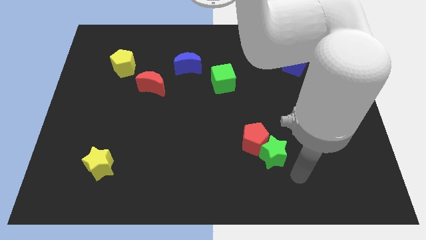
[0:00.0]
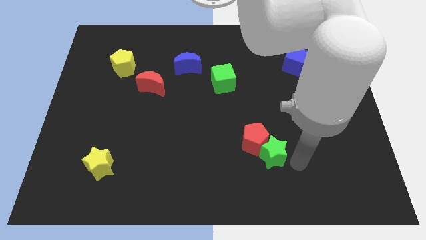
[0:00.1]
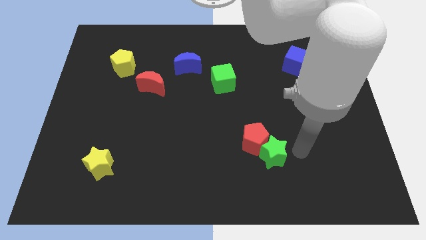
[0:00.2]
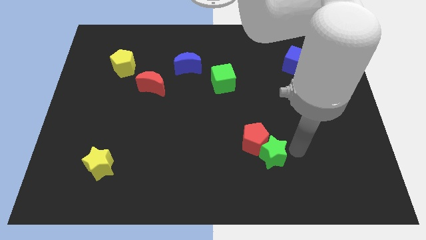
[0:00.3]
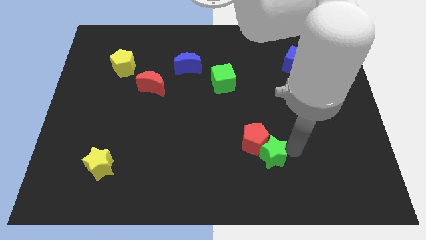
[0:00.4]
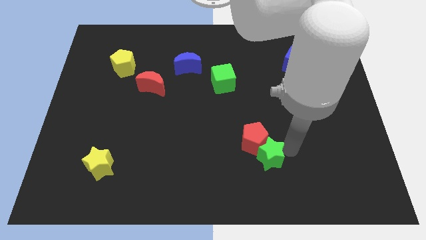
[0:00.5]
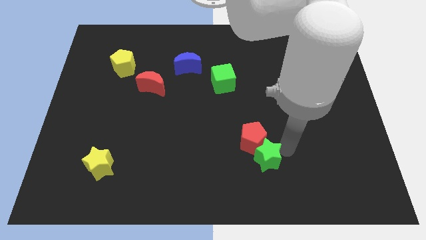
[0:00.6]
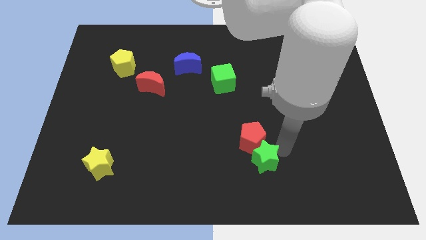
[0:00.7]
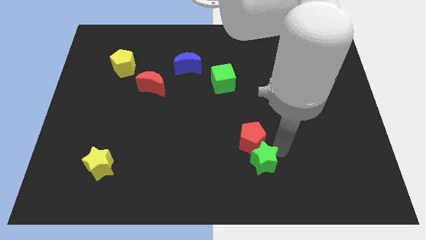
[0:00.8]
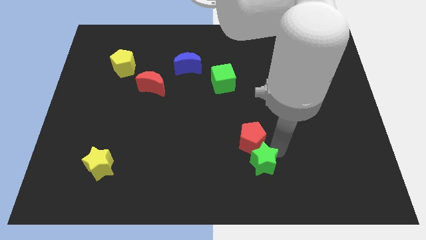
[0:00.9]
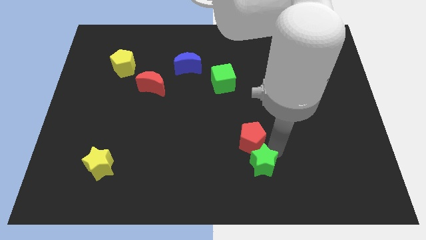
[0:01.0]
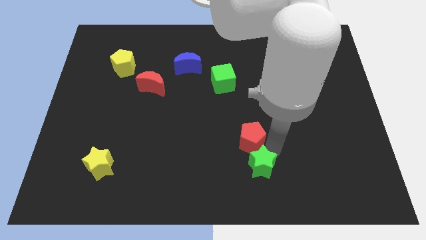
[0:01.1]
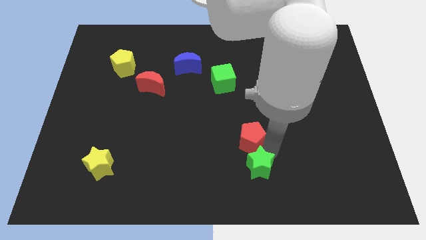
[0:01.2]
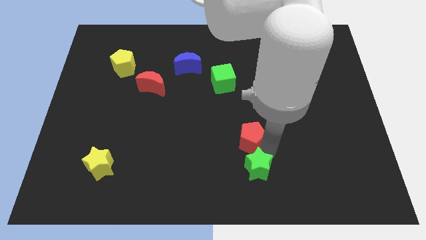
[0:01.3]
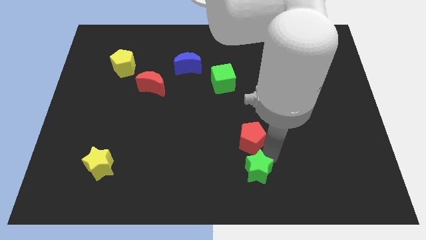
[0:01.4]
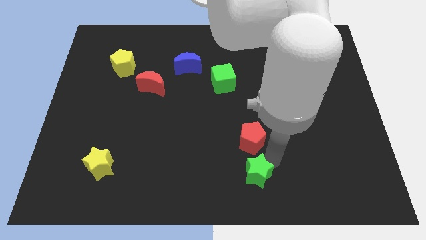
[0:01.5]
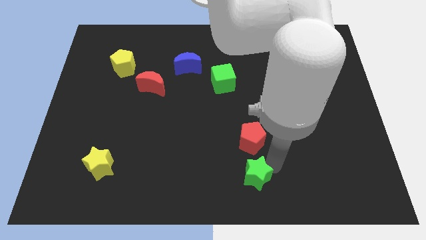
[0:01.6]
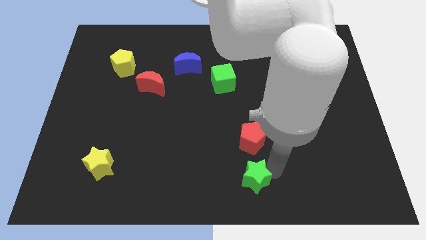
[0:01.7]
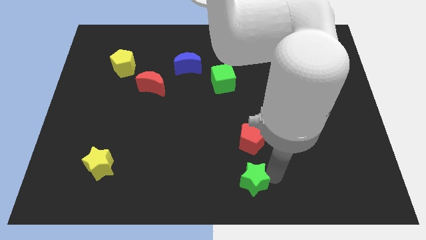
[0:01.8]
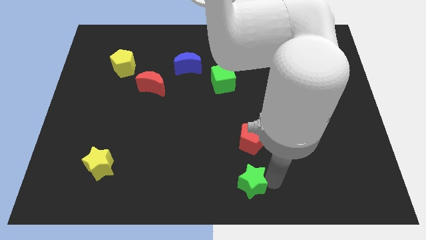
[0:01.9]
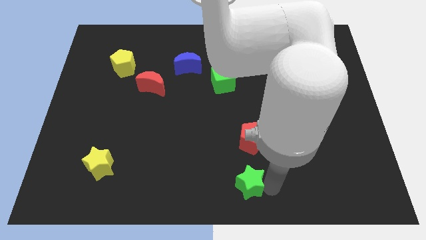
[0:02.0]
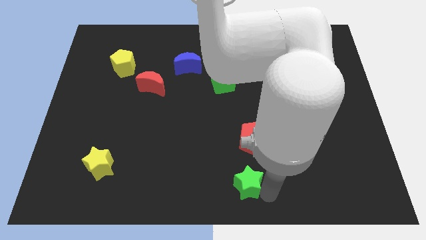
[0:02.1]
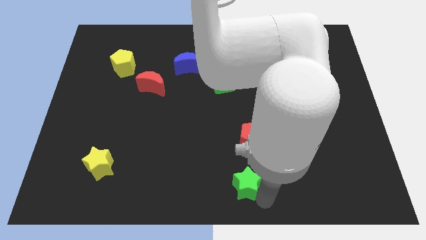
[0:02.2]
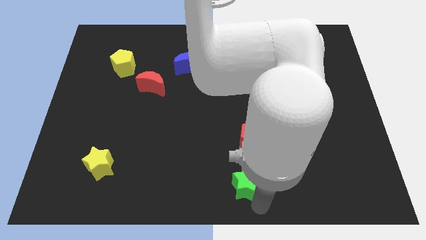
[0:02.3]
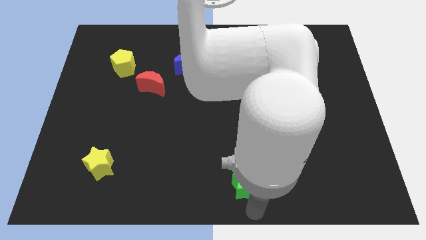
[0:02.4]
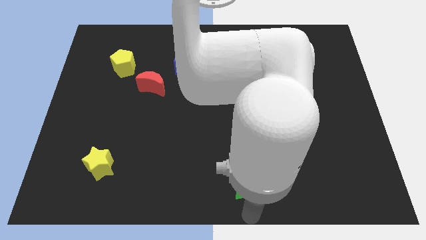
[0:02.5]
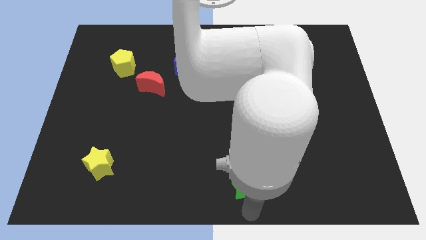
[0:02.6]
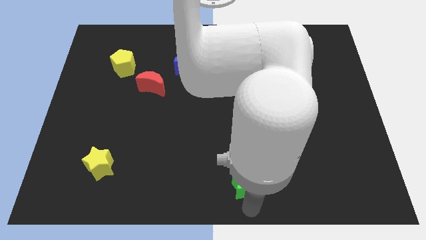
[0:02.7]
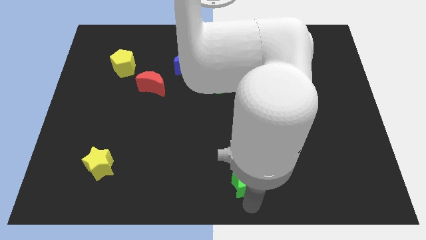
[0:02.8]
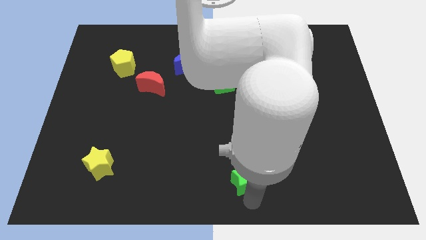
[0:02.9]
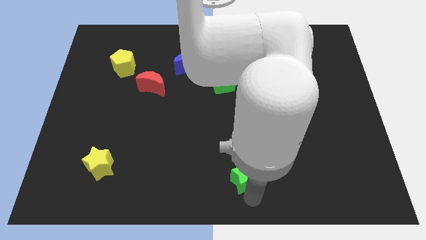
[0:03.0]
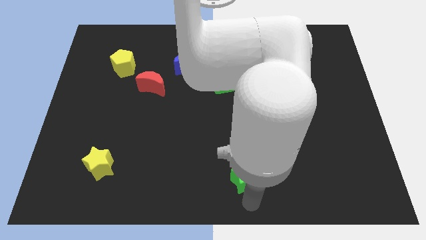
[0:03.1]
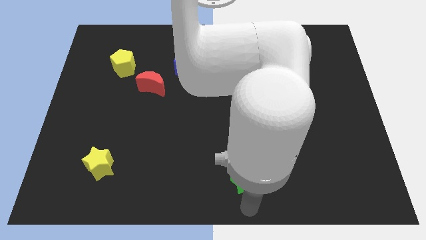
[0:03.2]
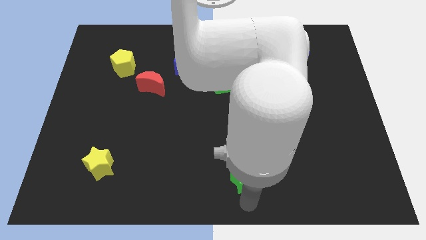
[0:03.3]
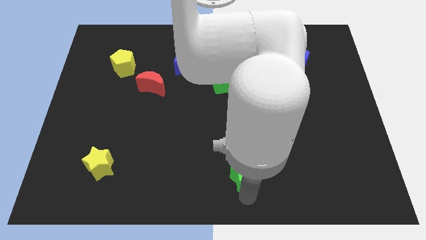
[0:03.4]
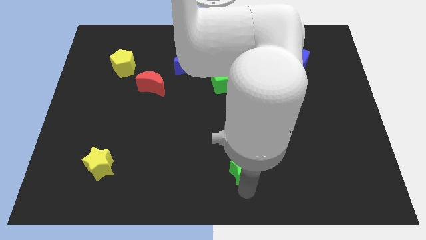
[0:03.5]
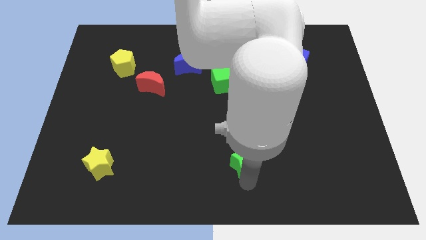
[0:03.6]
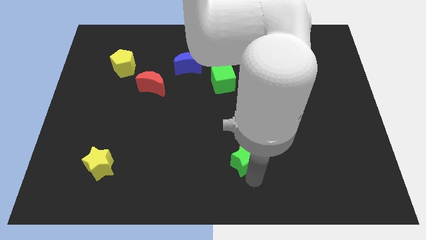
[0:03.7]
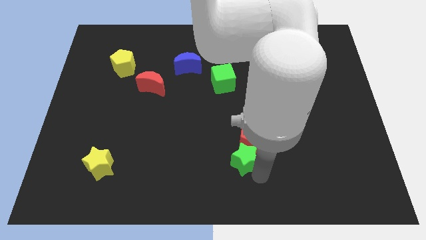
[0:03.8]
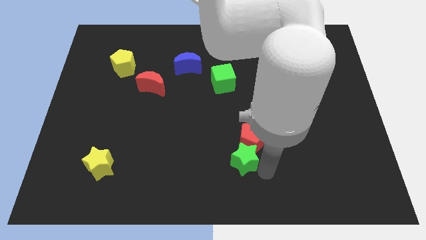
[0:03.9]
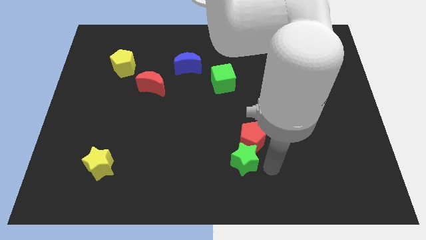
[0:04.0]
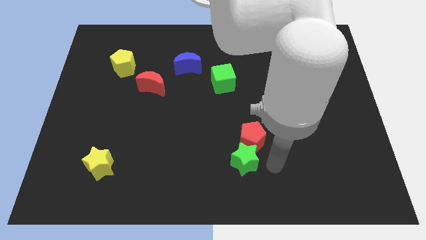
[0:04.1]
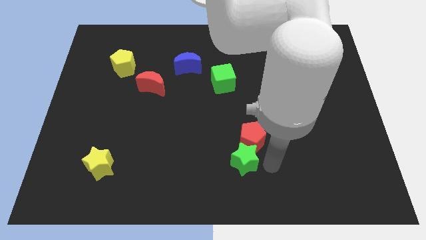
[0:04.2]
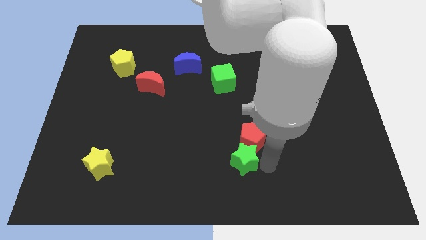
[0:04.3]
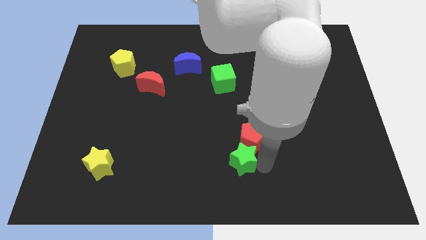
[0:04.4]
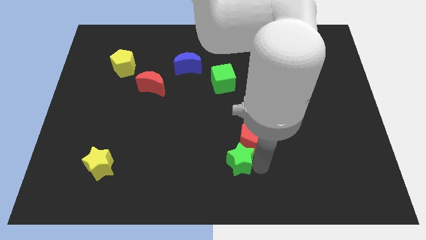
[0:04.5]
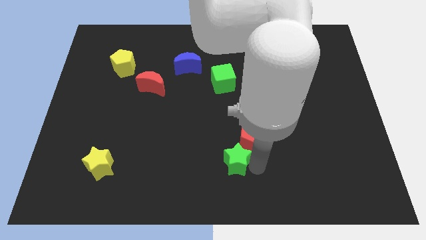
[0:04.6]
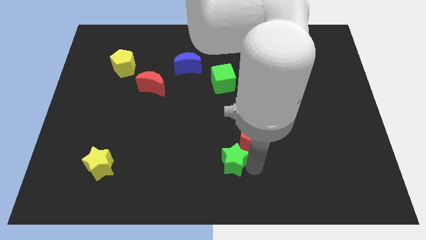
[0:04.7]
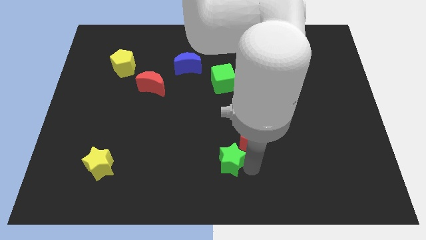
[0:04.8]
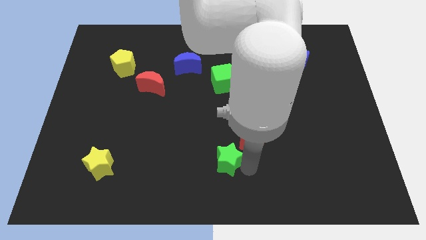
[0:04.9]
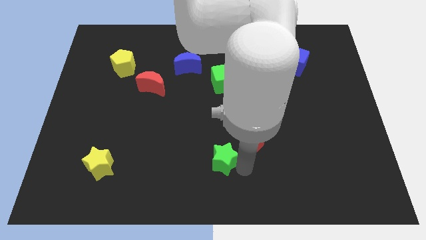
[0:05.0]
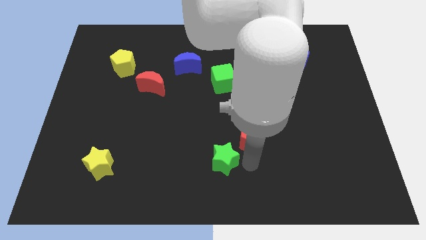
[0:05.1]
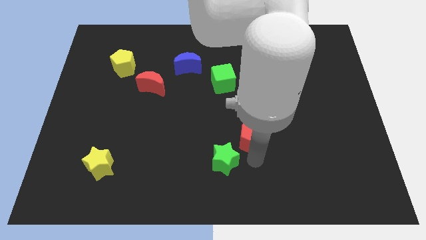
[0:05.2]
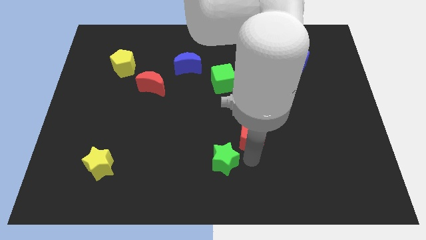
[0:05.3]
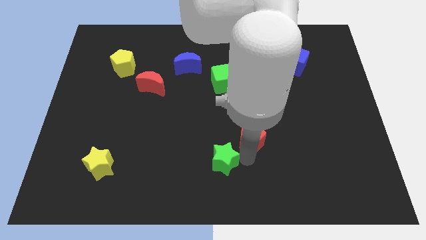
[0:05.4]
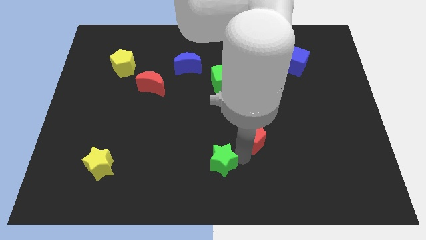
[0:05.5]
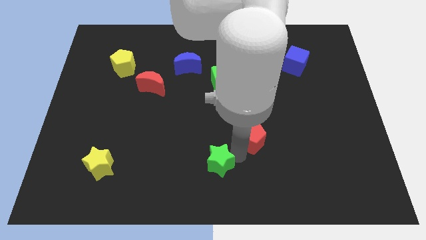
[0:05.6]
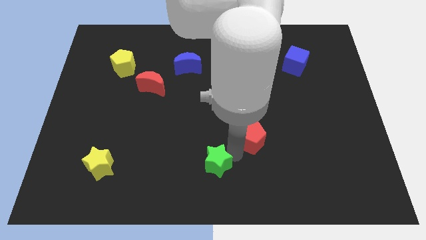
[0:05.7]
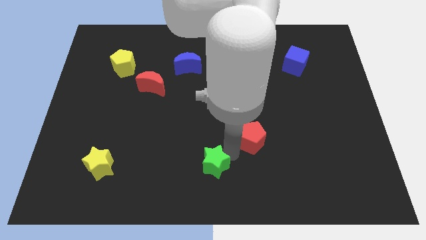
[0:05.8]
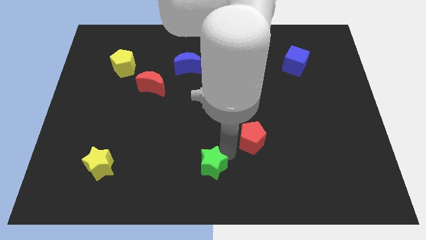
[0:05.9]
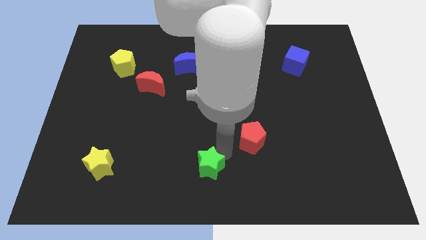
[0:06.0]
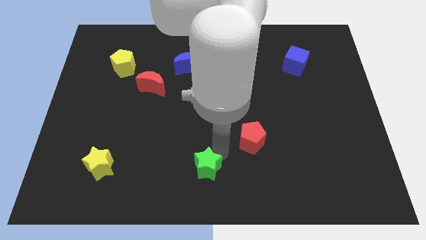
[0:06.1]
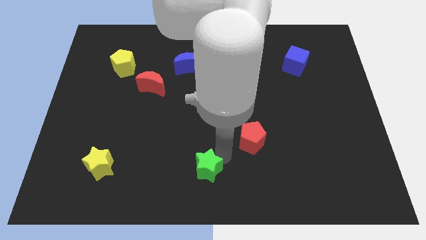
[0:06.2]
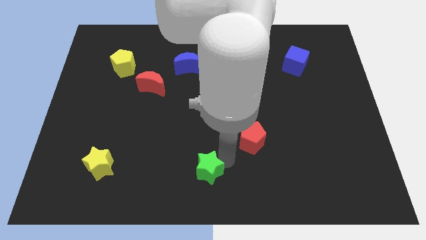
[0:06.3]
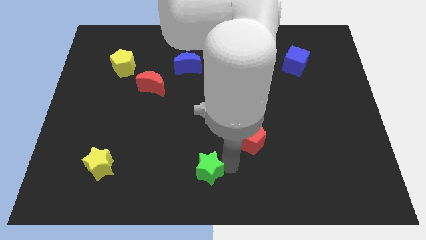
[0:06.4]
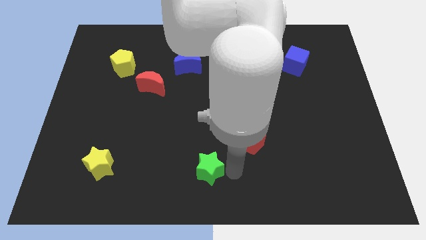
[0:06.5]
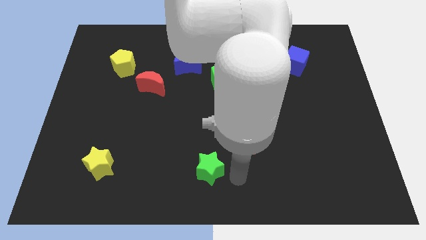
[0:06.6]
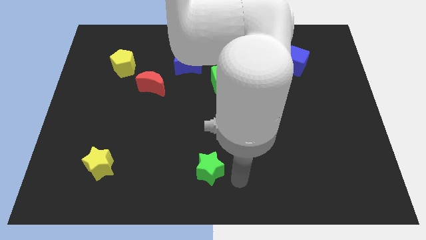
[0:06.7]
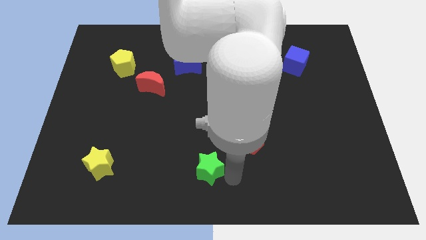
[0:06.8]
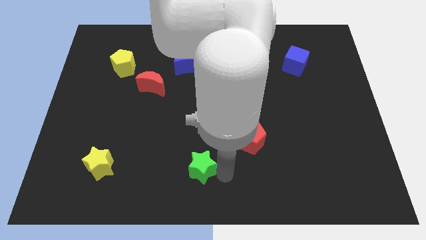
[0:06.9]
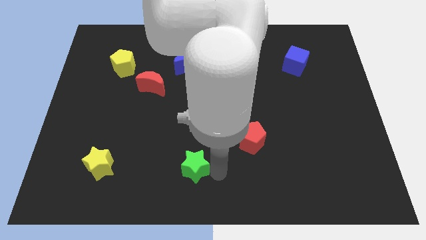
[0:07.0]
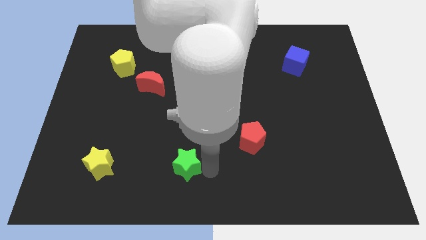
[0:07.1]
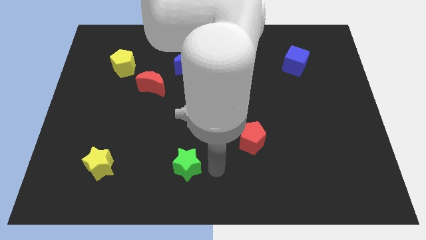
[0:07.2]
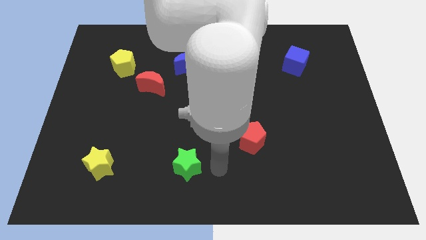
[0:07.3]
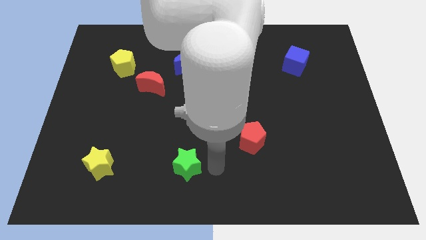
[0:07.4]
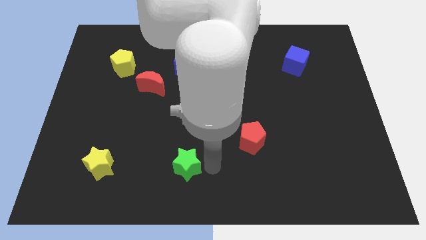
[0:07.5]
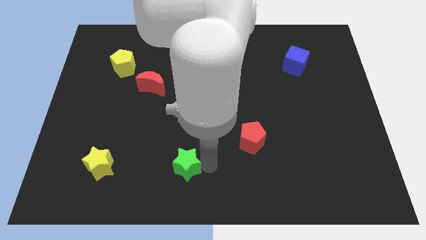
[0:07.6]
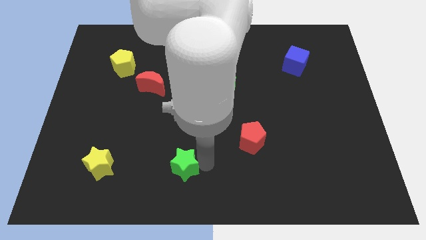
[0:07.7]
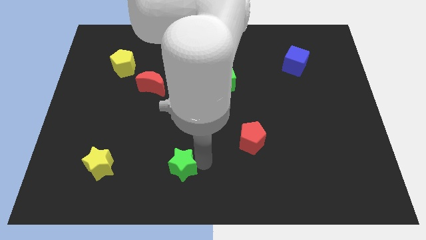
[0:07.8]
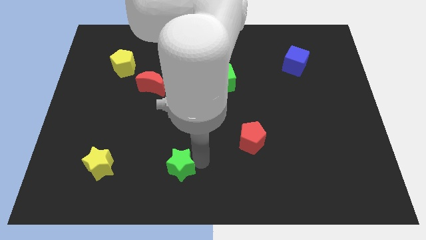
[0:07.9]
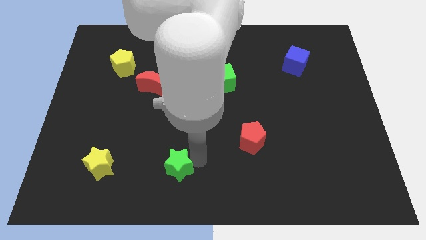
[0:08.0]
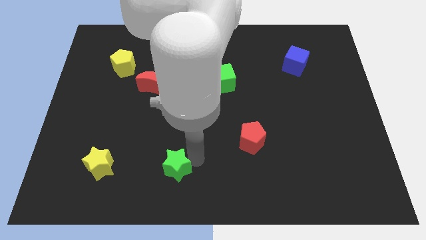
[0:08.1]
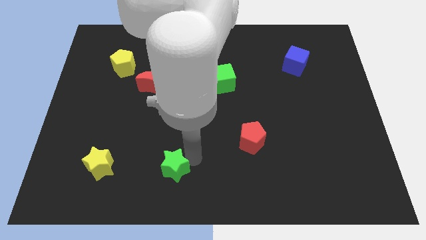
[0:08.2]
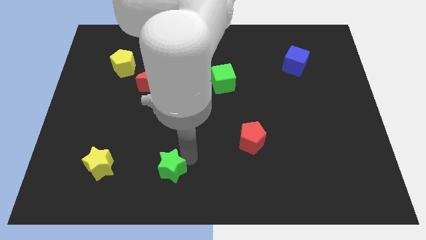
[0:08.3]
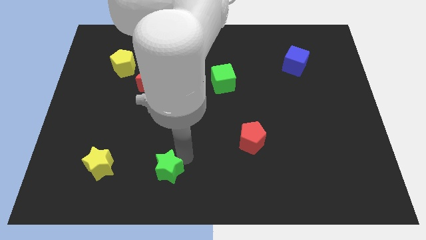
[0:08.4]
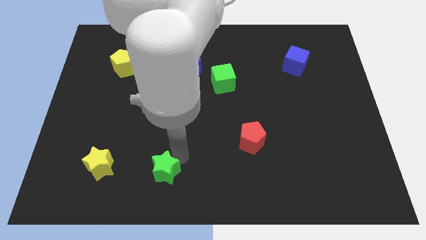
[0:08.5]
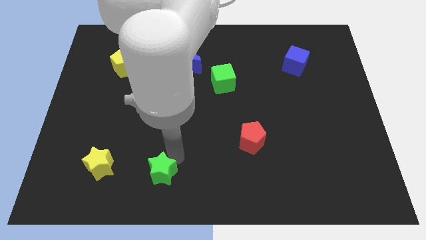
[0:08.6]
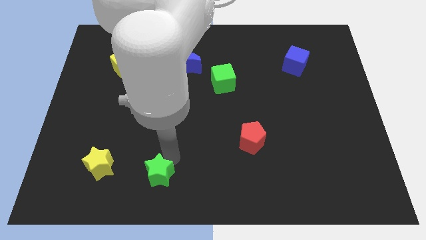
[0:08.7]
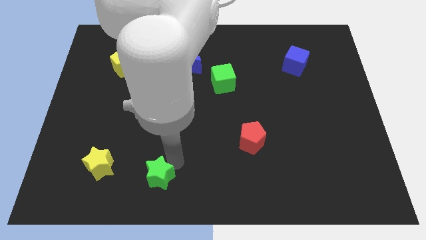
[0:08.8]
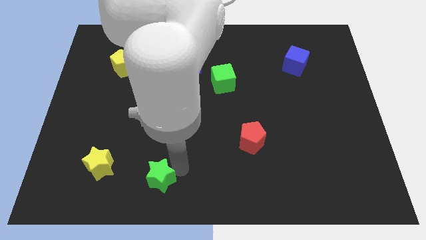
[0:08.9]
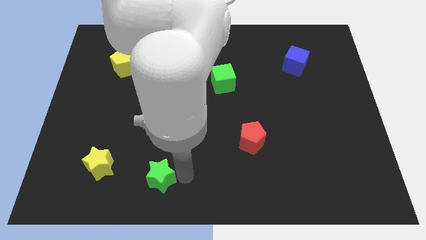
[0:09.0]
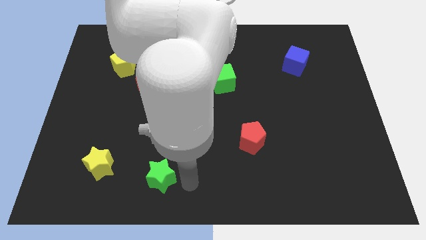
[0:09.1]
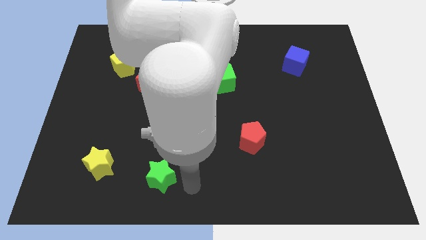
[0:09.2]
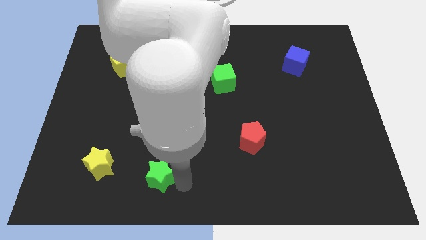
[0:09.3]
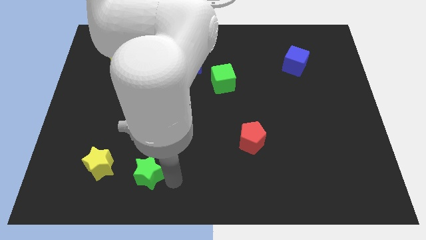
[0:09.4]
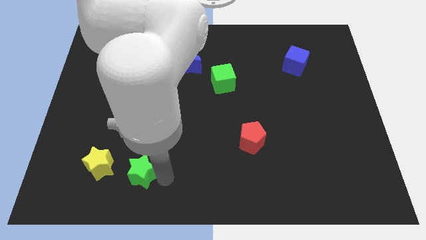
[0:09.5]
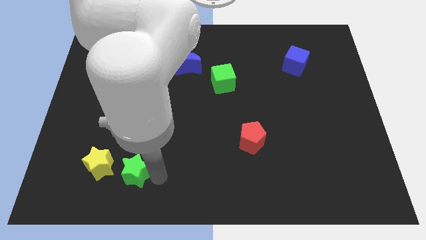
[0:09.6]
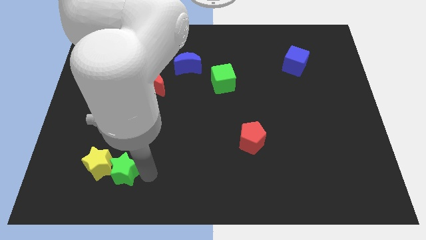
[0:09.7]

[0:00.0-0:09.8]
put the green star towards the yellow star
